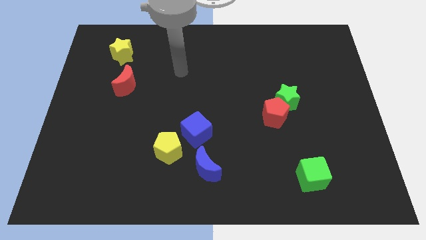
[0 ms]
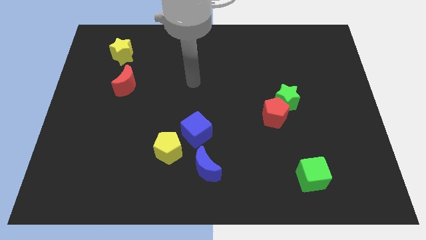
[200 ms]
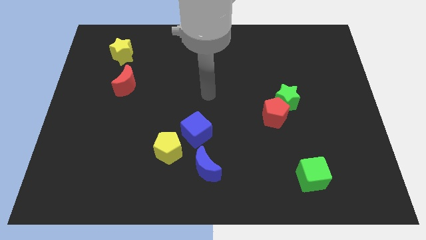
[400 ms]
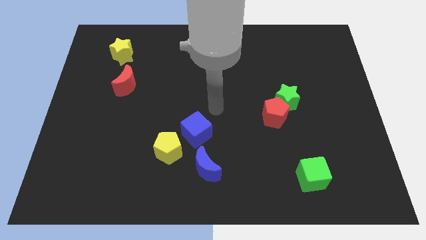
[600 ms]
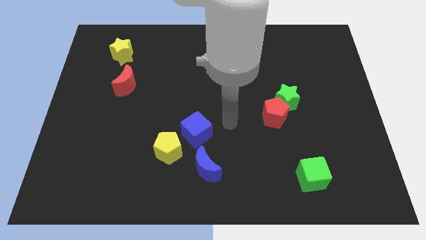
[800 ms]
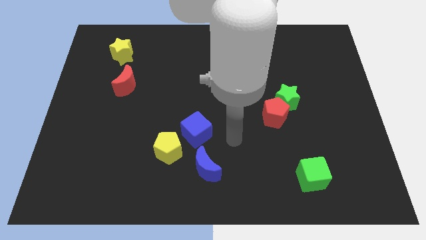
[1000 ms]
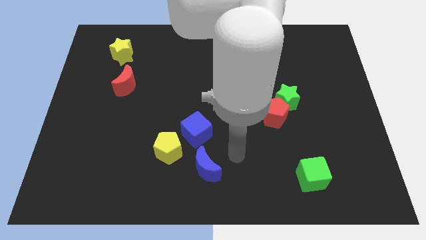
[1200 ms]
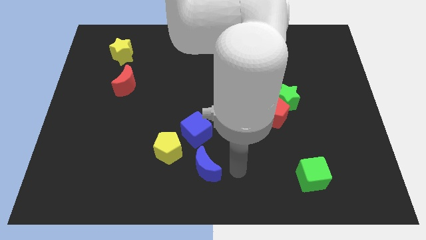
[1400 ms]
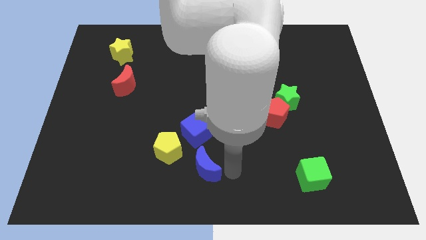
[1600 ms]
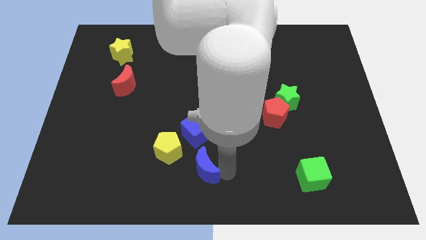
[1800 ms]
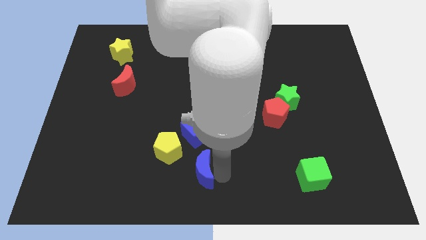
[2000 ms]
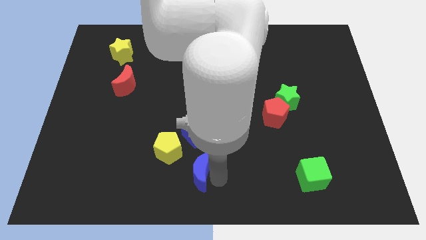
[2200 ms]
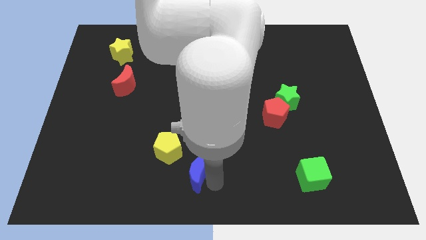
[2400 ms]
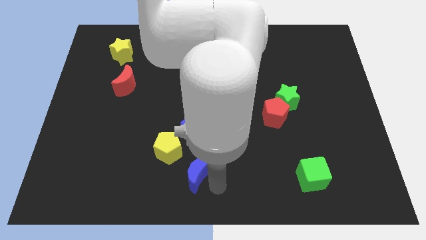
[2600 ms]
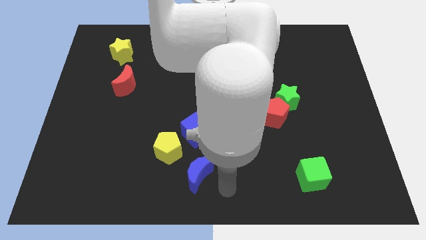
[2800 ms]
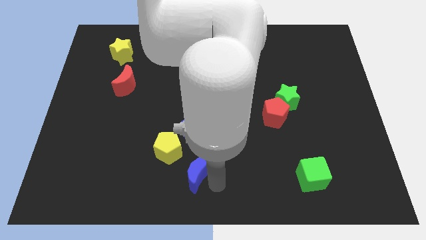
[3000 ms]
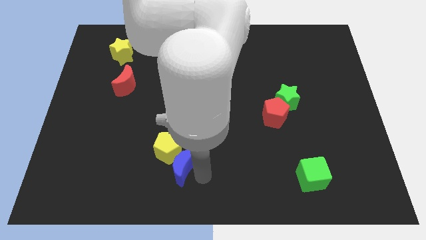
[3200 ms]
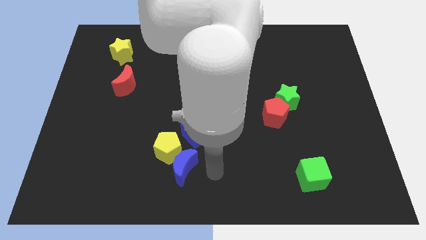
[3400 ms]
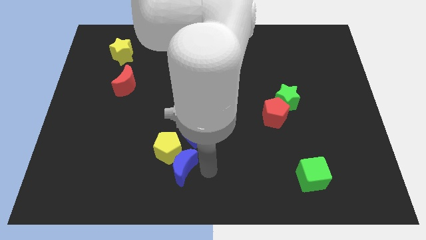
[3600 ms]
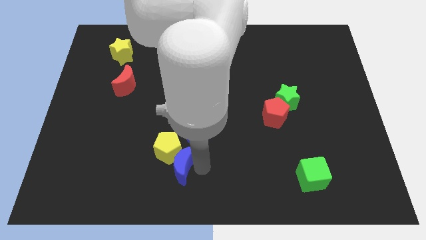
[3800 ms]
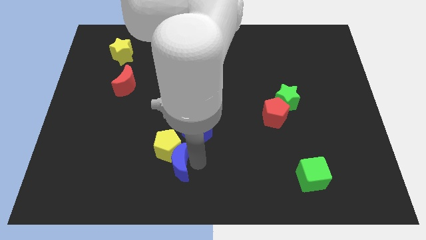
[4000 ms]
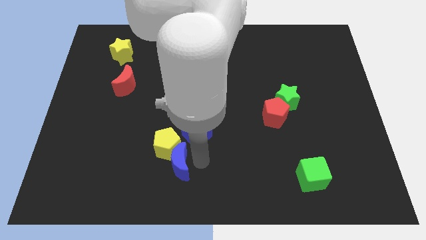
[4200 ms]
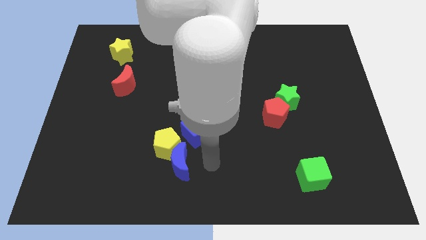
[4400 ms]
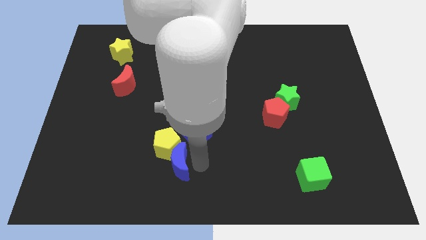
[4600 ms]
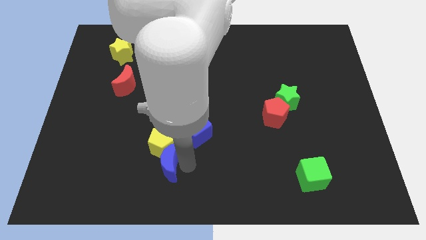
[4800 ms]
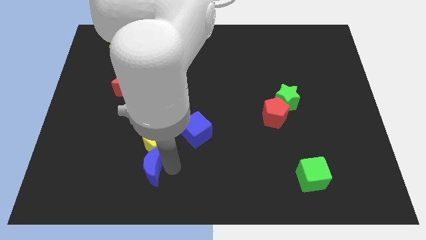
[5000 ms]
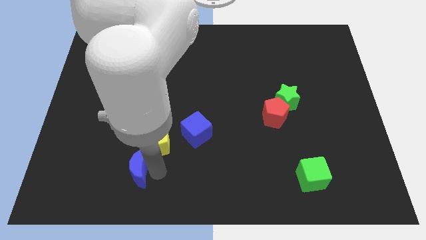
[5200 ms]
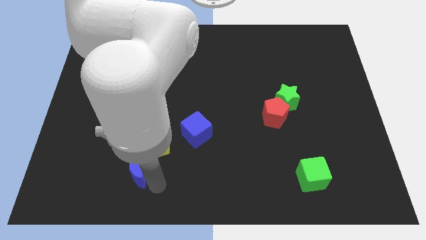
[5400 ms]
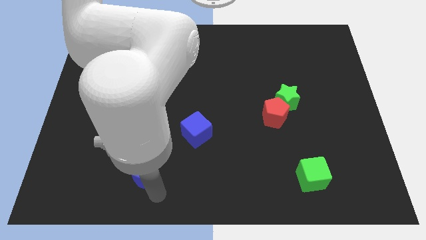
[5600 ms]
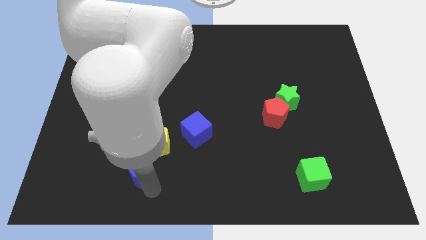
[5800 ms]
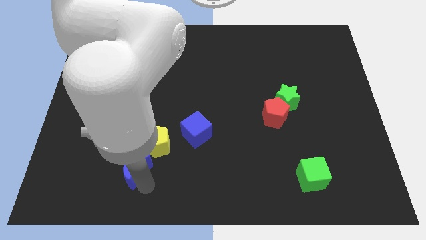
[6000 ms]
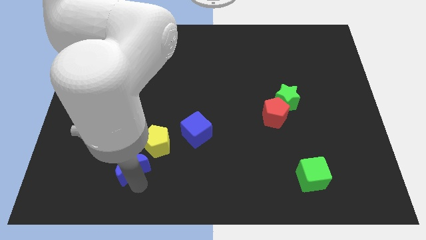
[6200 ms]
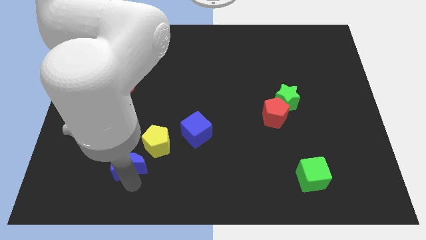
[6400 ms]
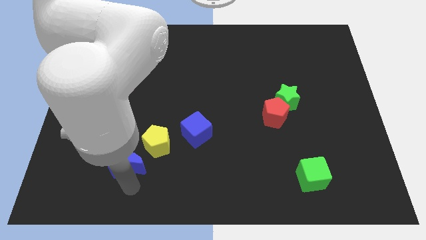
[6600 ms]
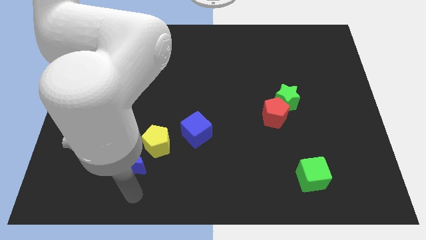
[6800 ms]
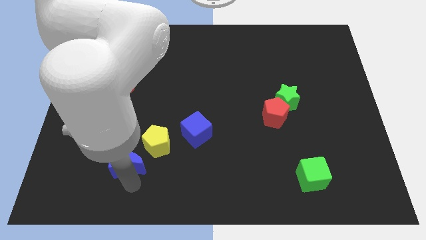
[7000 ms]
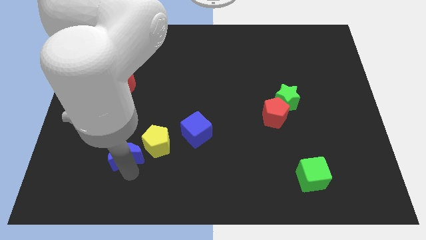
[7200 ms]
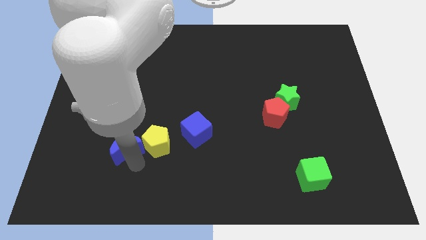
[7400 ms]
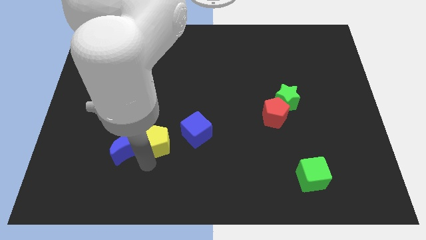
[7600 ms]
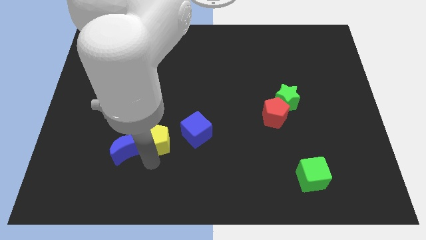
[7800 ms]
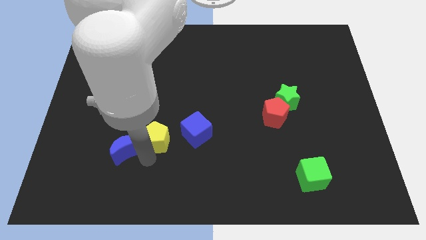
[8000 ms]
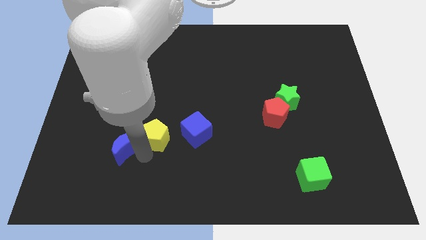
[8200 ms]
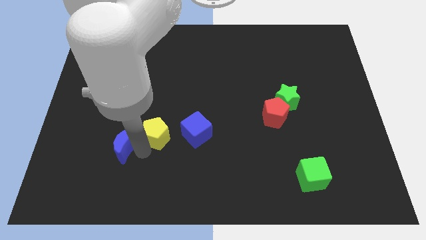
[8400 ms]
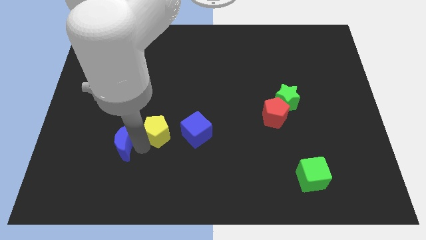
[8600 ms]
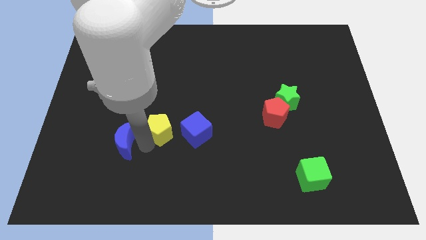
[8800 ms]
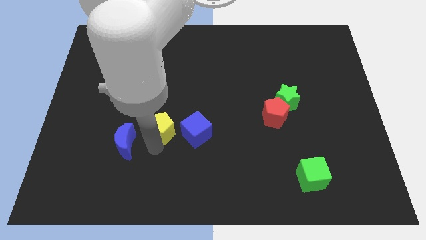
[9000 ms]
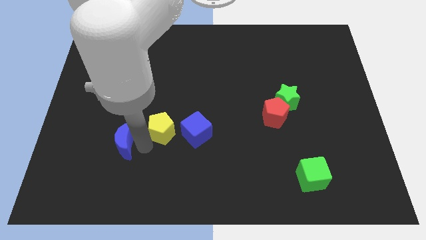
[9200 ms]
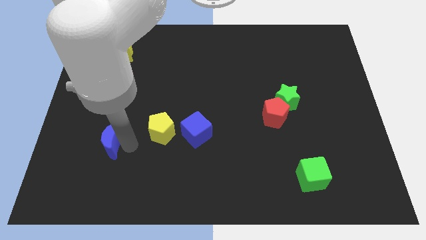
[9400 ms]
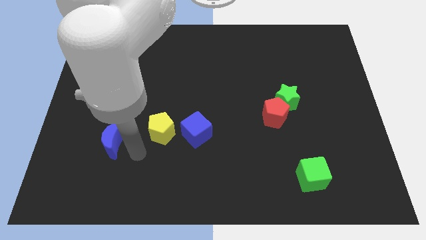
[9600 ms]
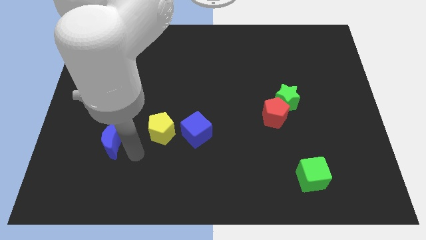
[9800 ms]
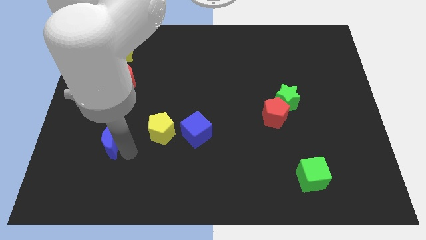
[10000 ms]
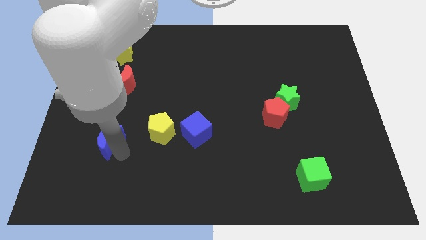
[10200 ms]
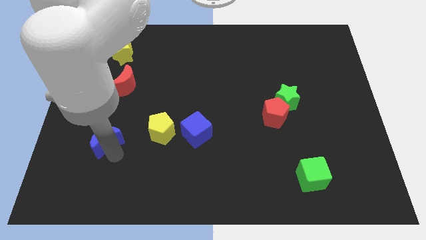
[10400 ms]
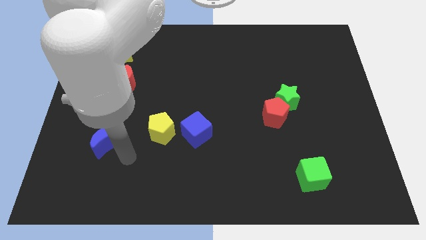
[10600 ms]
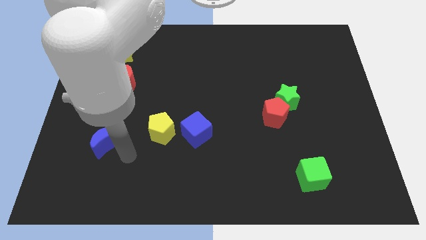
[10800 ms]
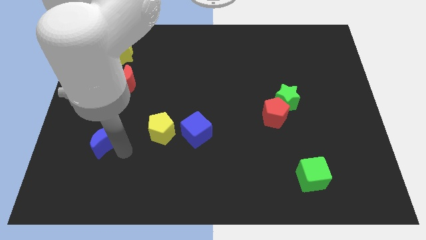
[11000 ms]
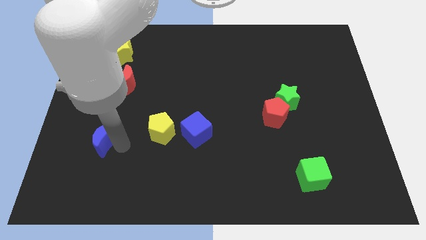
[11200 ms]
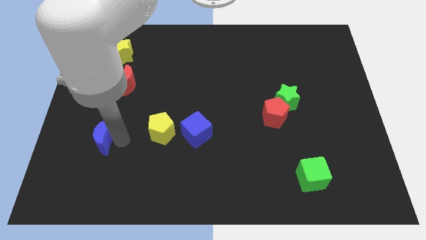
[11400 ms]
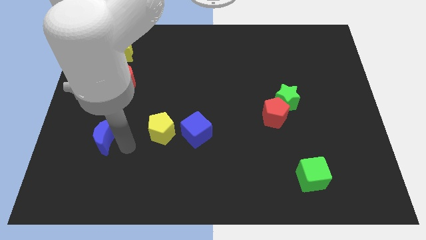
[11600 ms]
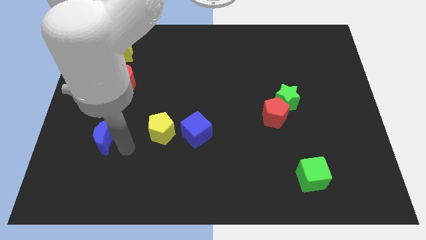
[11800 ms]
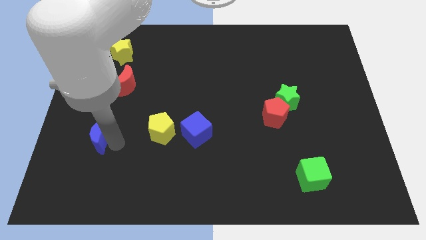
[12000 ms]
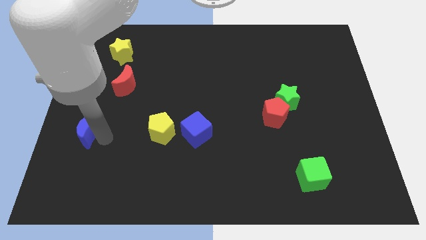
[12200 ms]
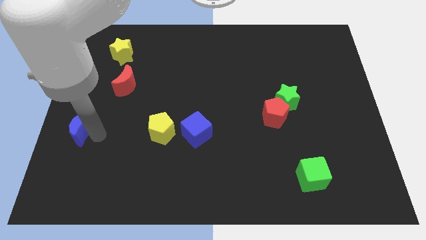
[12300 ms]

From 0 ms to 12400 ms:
slide the blue moon to the left side of the board

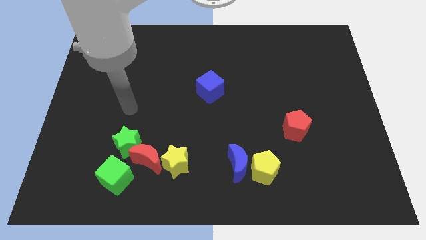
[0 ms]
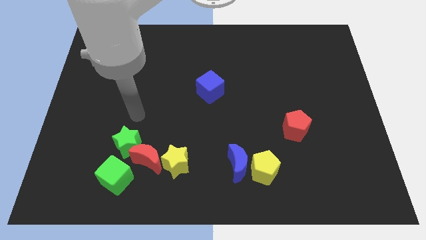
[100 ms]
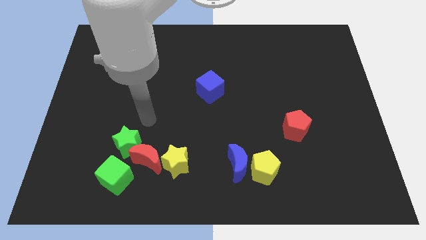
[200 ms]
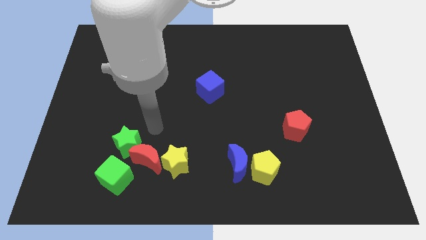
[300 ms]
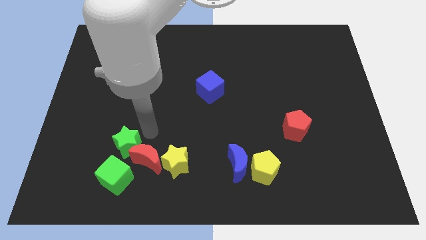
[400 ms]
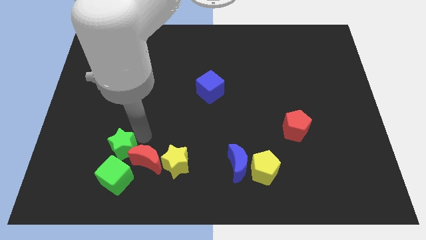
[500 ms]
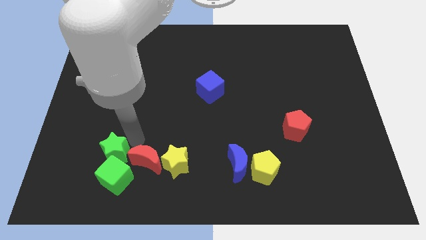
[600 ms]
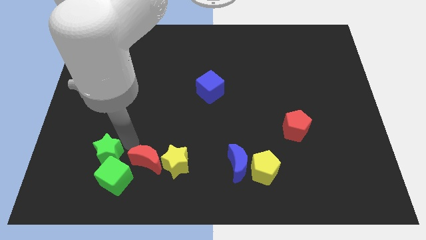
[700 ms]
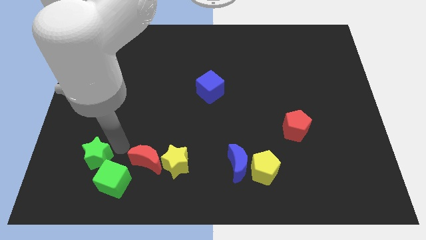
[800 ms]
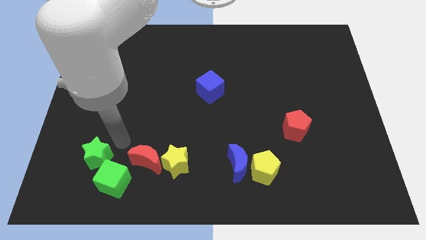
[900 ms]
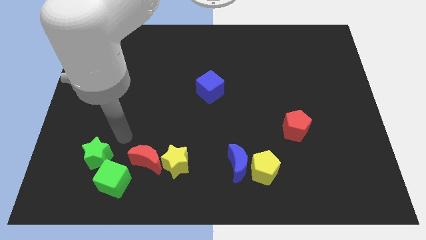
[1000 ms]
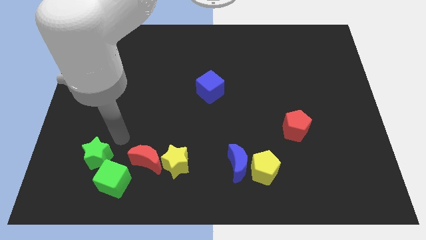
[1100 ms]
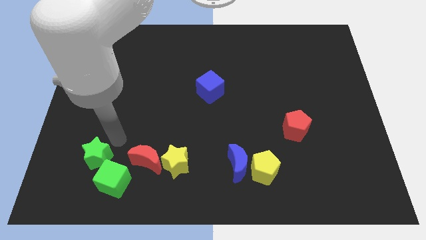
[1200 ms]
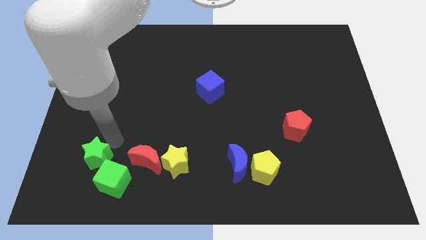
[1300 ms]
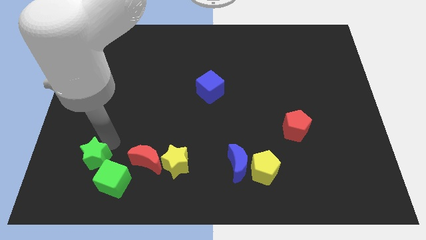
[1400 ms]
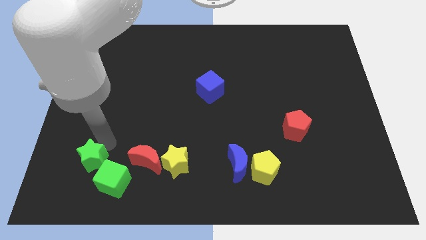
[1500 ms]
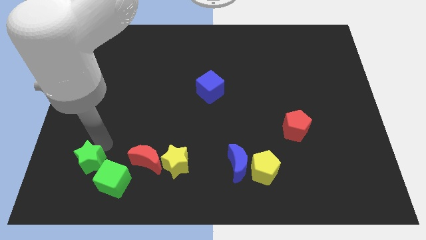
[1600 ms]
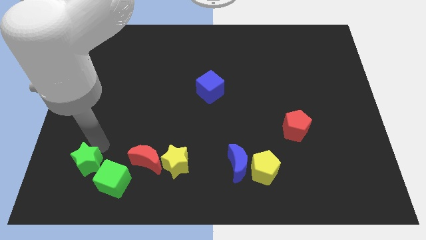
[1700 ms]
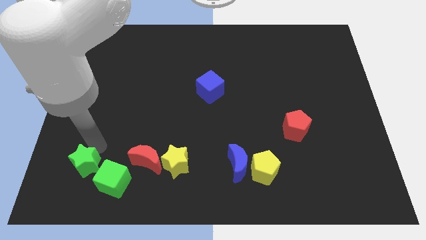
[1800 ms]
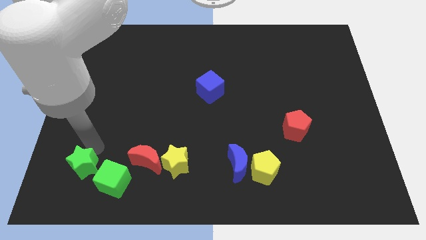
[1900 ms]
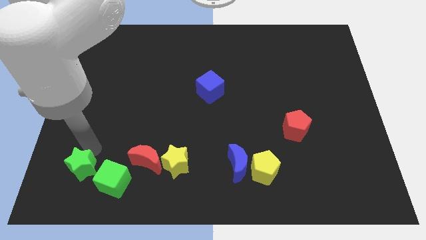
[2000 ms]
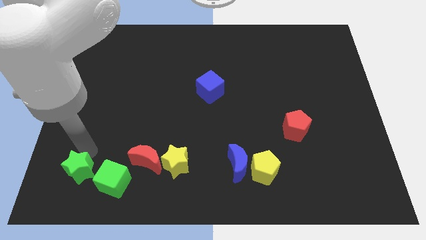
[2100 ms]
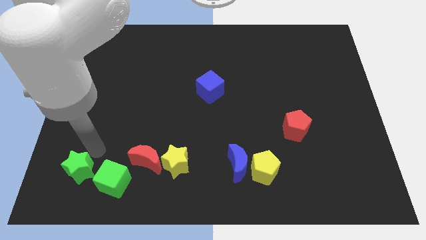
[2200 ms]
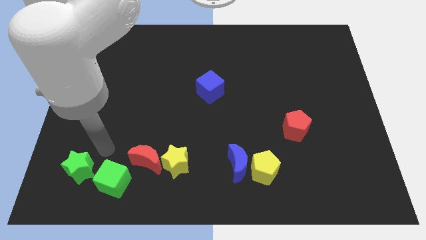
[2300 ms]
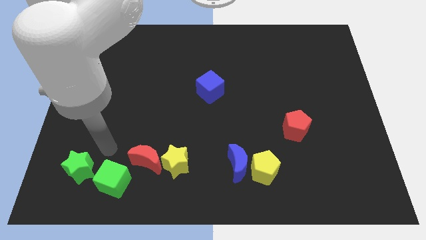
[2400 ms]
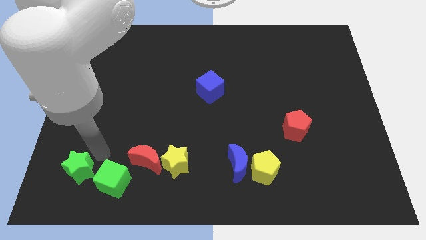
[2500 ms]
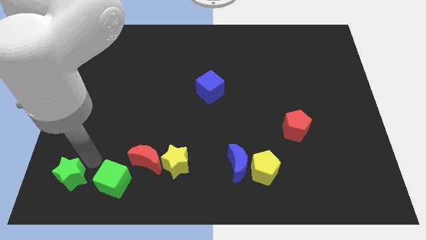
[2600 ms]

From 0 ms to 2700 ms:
slide the green star to the bottom left of the board
